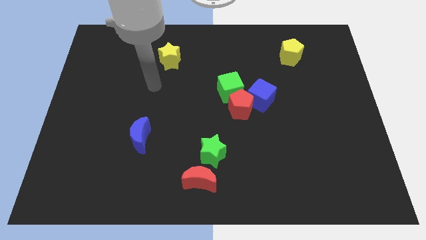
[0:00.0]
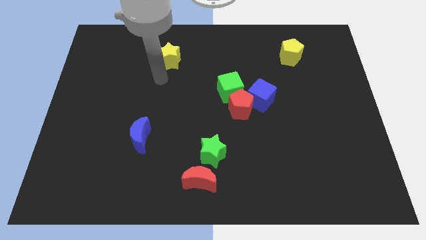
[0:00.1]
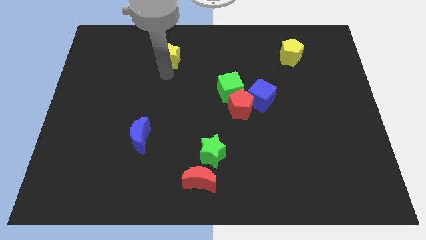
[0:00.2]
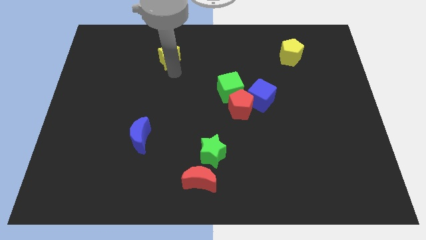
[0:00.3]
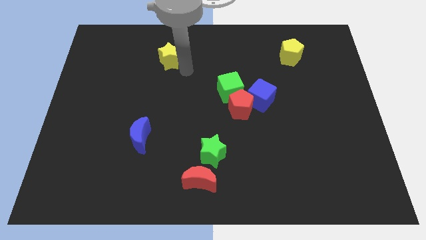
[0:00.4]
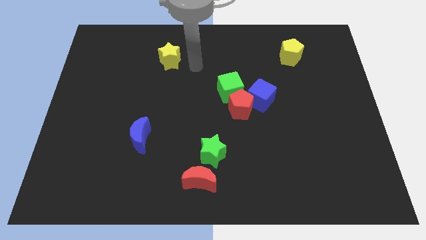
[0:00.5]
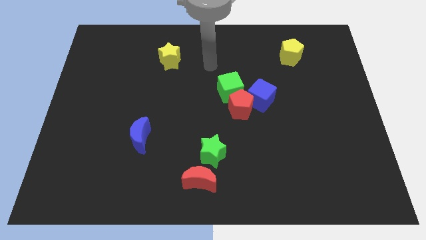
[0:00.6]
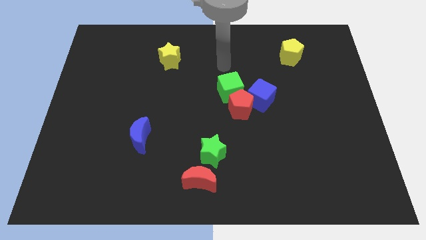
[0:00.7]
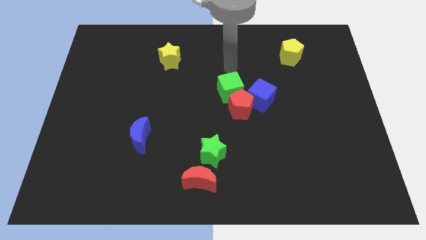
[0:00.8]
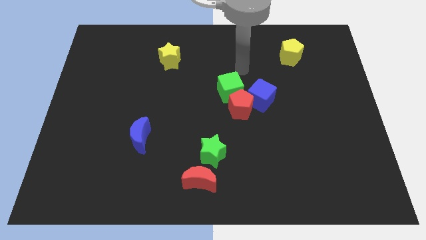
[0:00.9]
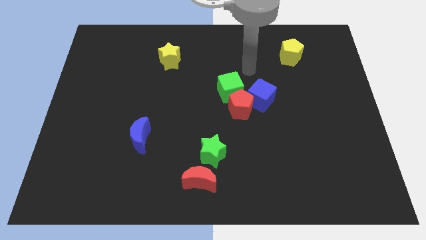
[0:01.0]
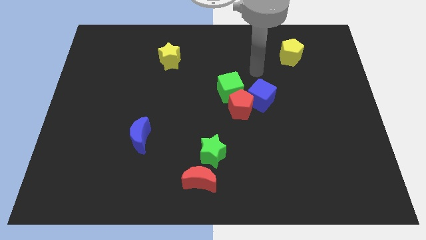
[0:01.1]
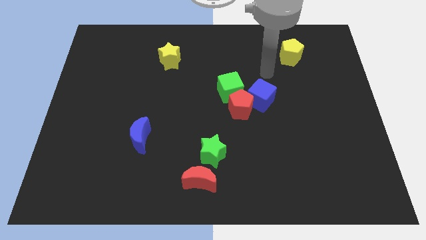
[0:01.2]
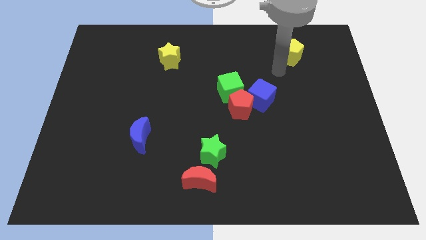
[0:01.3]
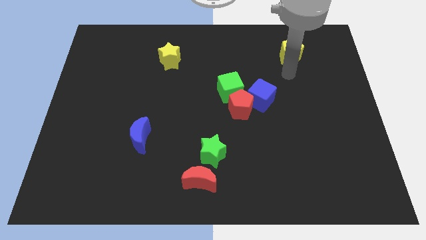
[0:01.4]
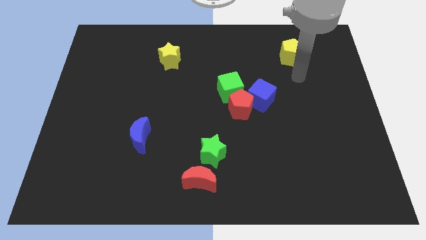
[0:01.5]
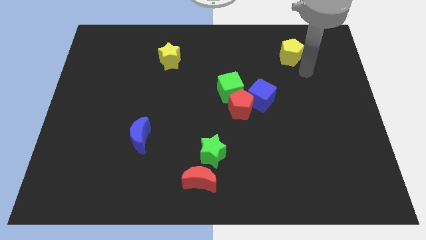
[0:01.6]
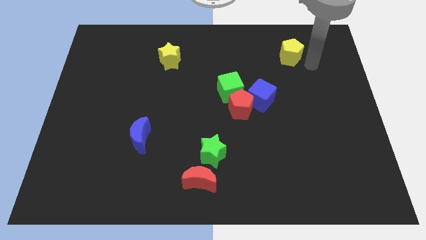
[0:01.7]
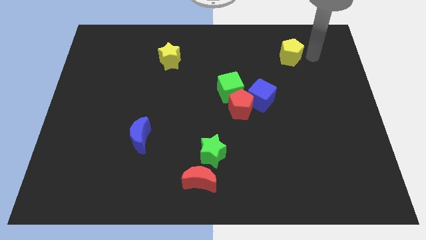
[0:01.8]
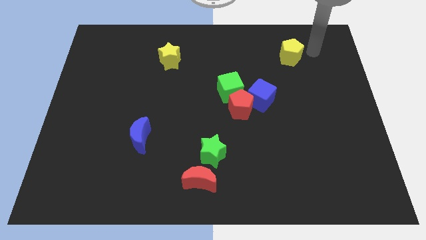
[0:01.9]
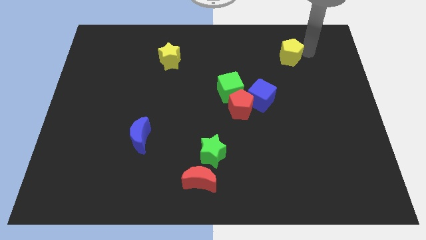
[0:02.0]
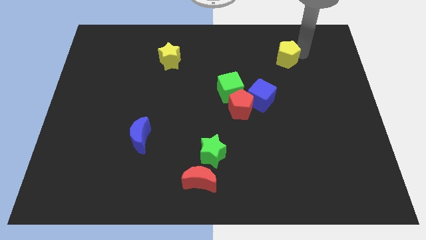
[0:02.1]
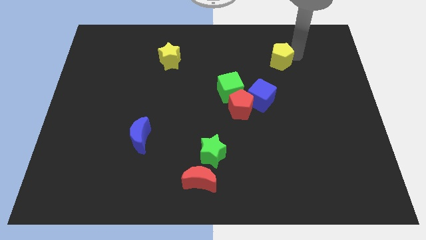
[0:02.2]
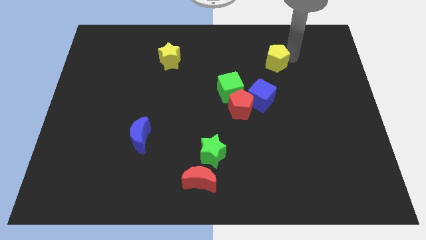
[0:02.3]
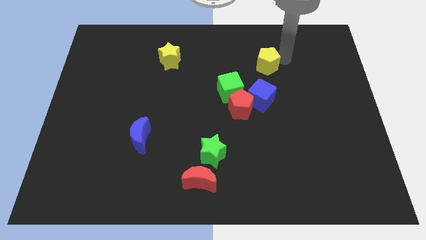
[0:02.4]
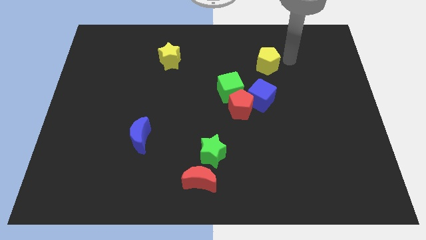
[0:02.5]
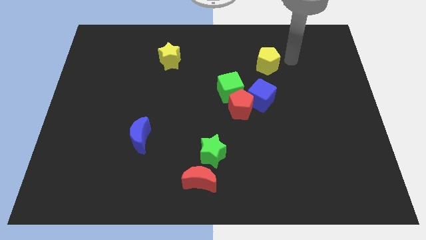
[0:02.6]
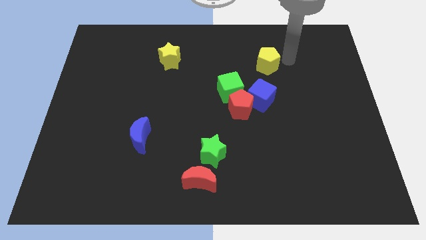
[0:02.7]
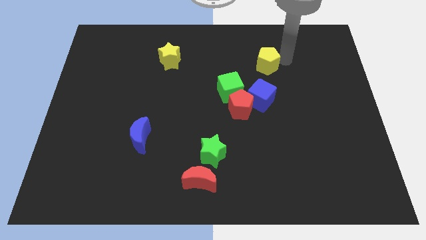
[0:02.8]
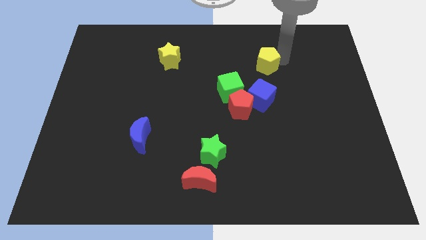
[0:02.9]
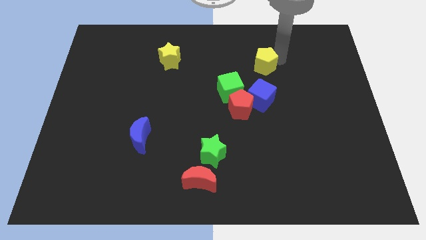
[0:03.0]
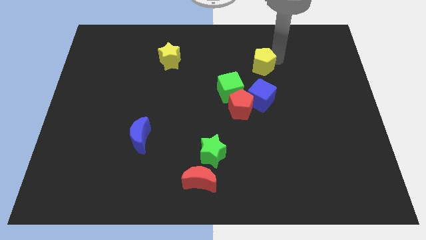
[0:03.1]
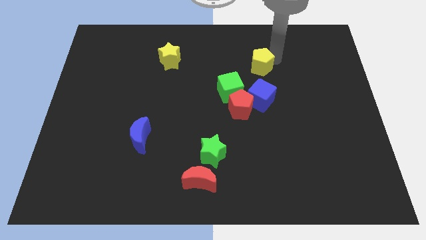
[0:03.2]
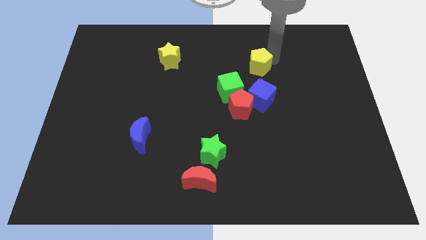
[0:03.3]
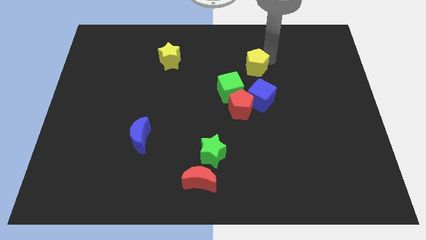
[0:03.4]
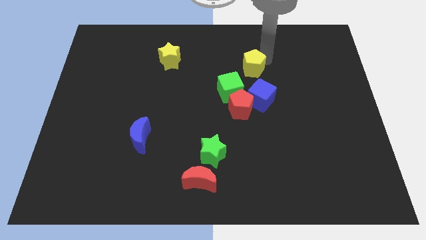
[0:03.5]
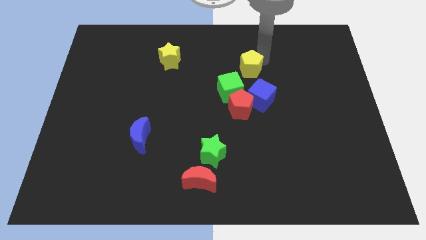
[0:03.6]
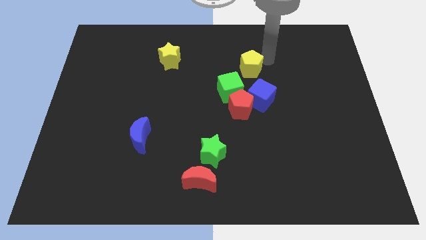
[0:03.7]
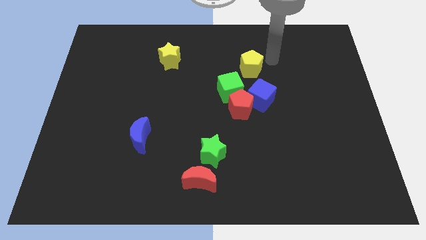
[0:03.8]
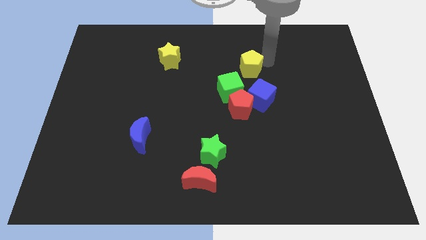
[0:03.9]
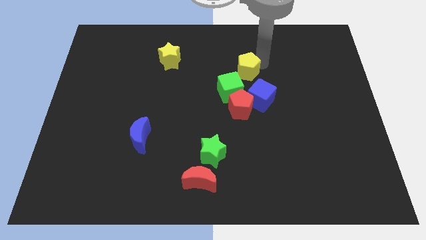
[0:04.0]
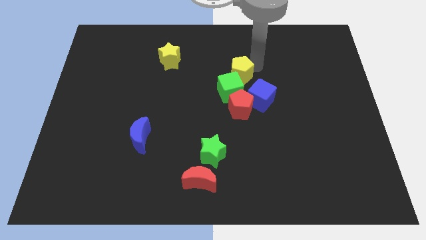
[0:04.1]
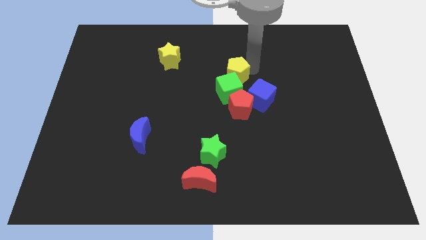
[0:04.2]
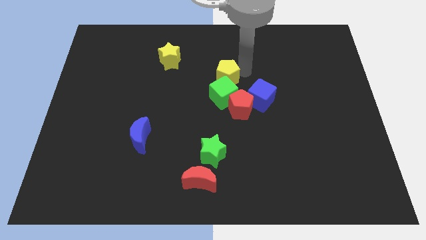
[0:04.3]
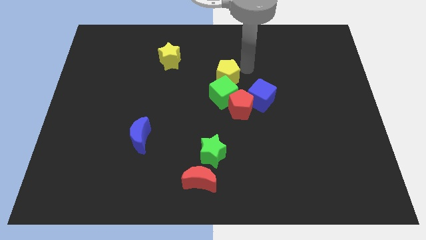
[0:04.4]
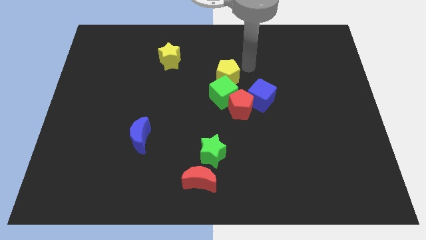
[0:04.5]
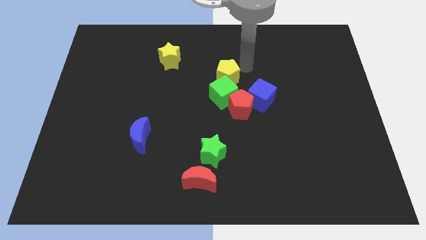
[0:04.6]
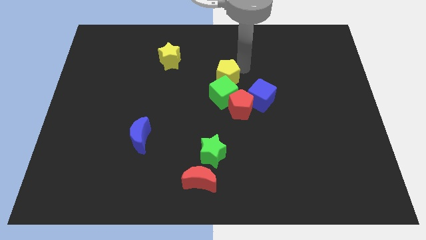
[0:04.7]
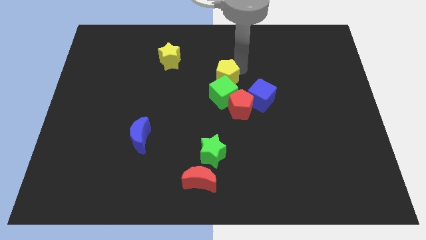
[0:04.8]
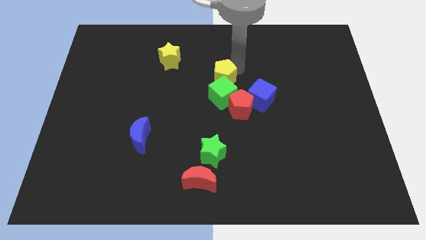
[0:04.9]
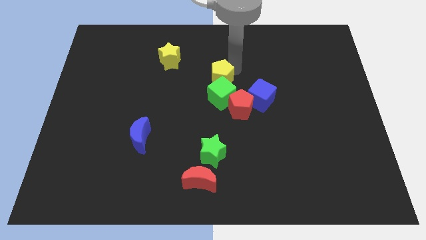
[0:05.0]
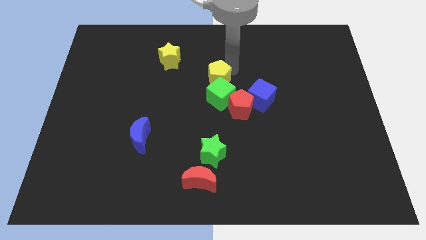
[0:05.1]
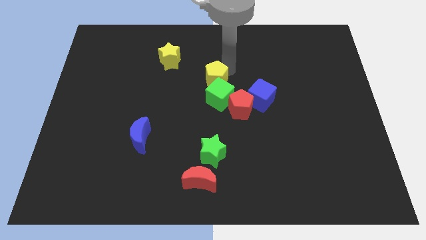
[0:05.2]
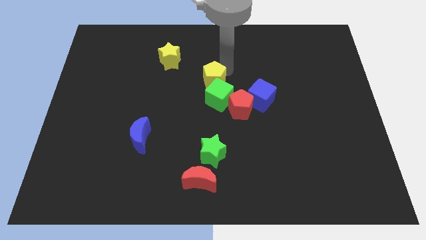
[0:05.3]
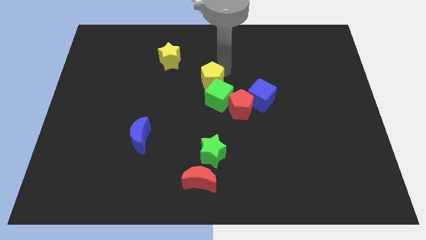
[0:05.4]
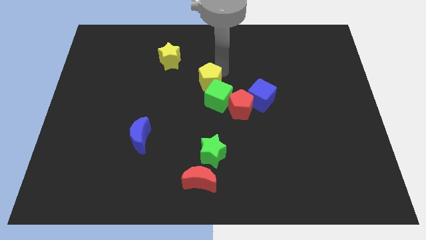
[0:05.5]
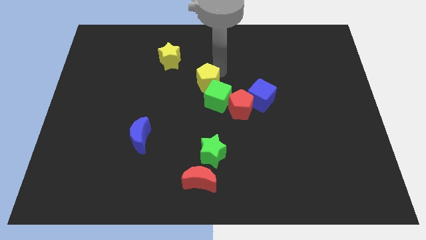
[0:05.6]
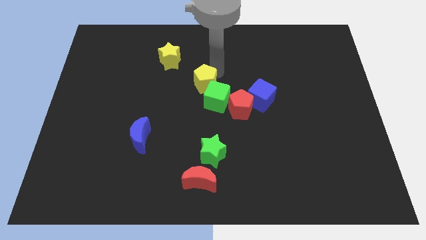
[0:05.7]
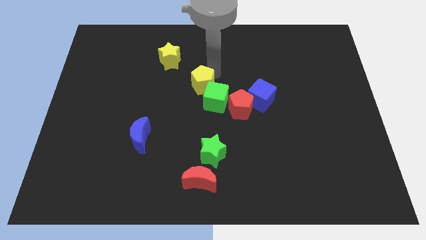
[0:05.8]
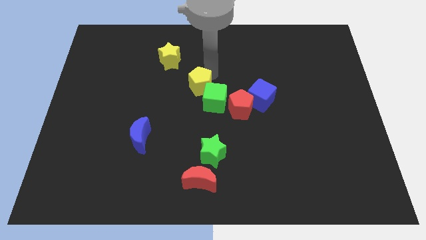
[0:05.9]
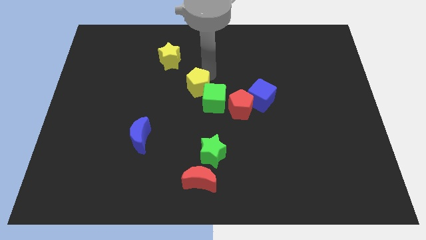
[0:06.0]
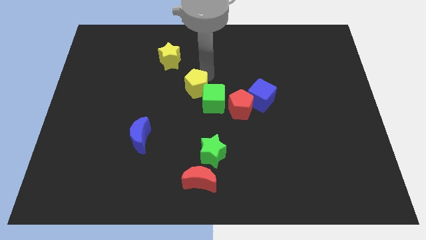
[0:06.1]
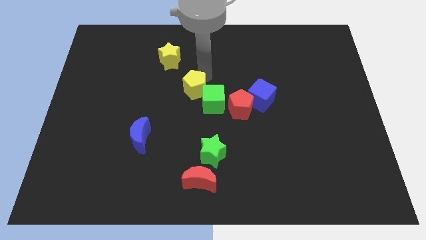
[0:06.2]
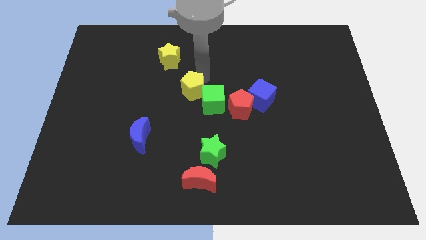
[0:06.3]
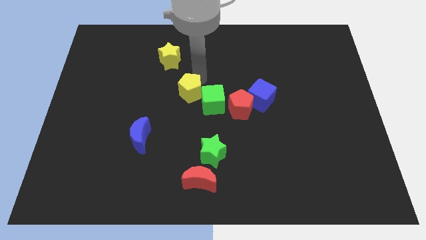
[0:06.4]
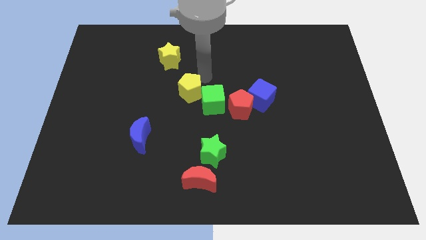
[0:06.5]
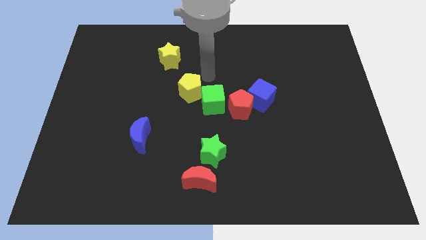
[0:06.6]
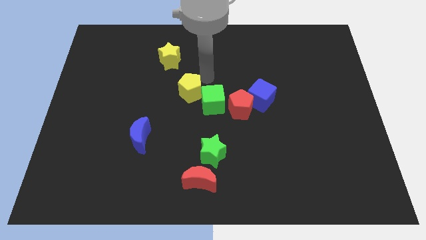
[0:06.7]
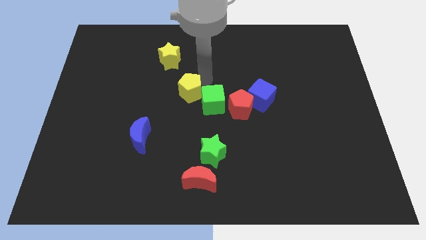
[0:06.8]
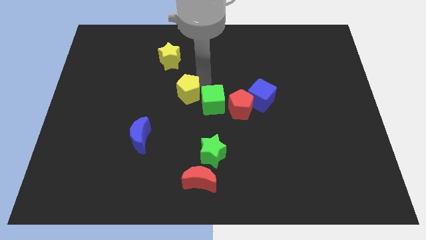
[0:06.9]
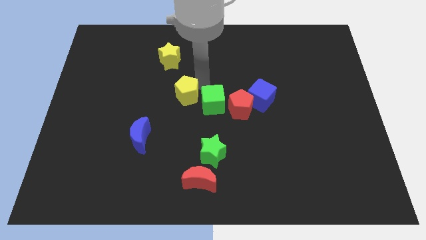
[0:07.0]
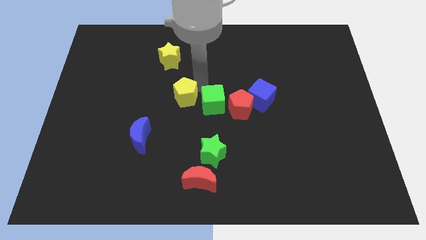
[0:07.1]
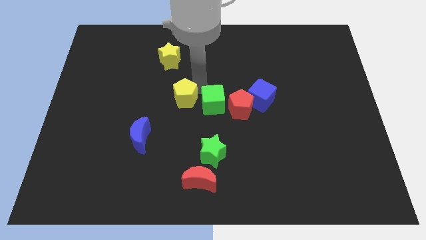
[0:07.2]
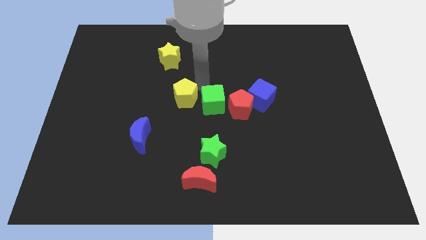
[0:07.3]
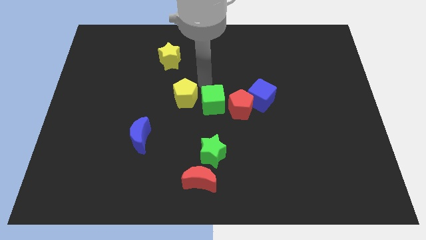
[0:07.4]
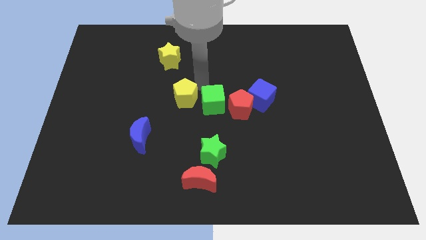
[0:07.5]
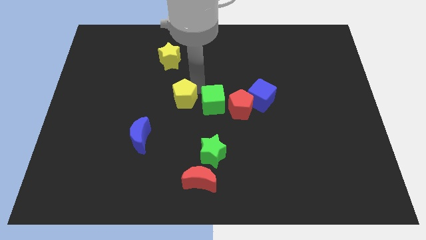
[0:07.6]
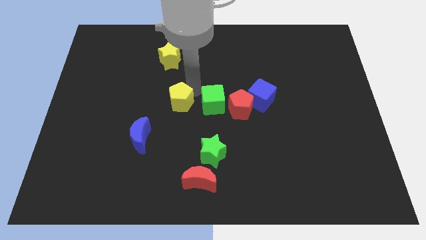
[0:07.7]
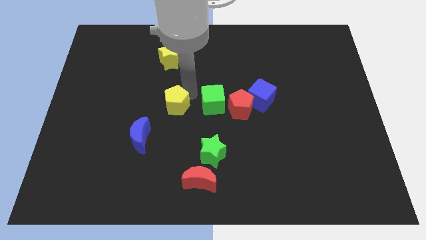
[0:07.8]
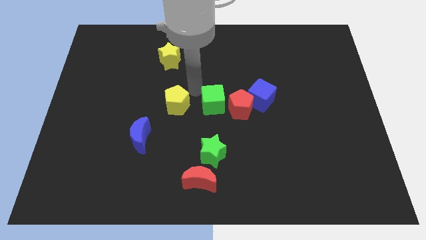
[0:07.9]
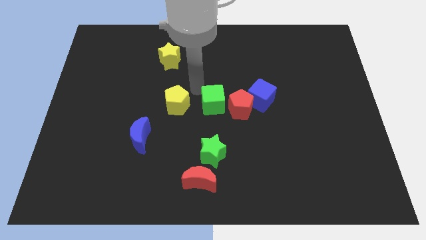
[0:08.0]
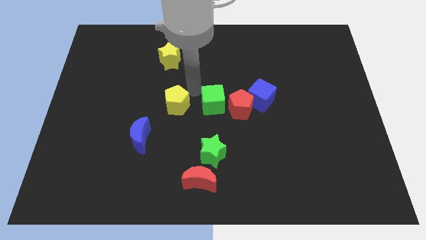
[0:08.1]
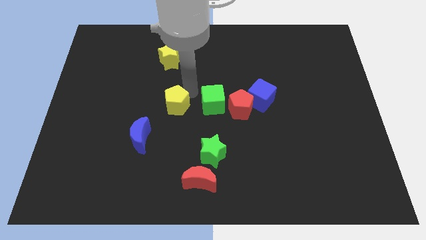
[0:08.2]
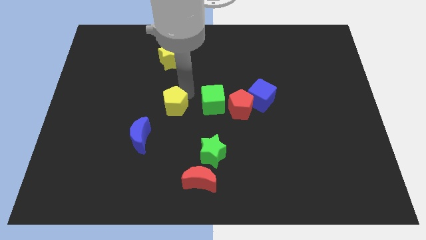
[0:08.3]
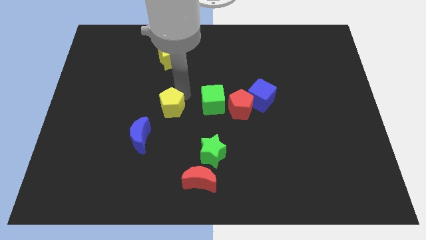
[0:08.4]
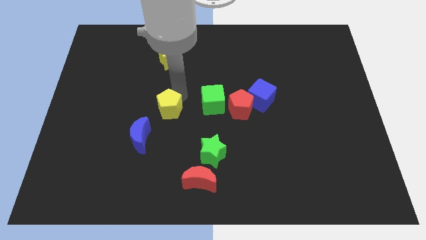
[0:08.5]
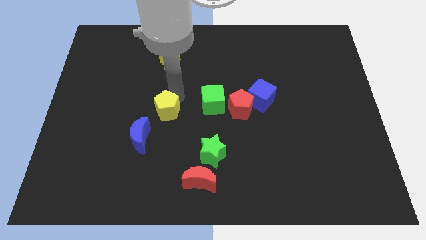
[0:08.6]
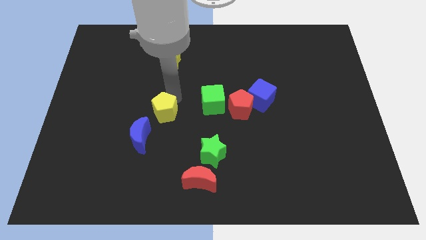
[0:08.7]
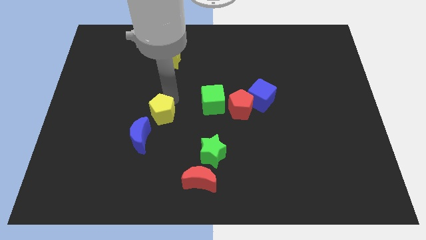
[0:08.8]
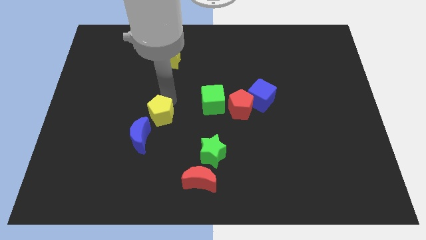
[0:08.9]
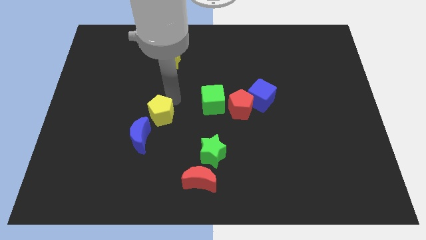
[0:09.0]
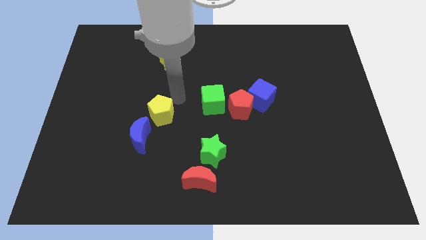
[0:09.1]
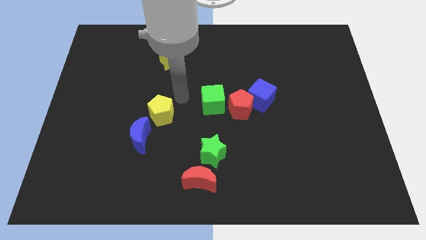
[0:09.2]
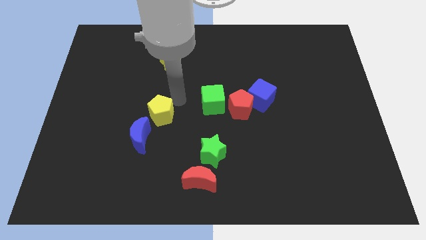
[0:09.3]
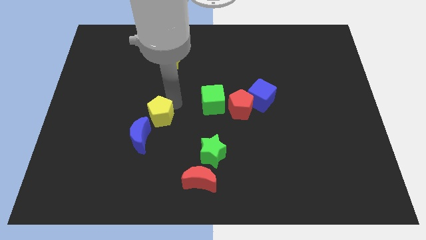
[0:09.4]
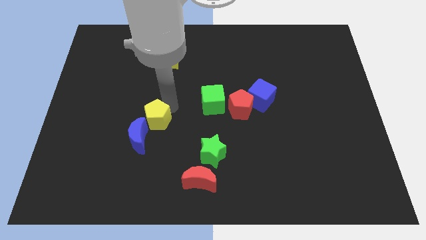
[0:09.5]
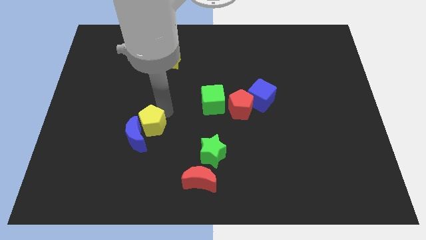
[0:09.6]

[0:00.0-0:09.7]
slide the yellow pentagon to the blue moon
